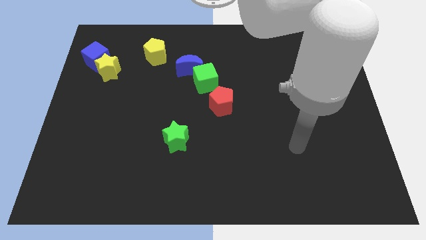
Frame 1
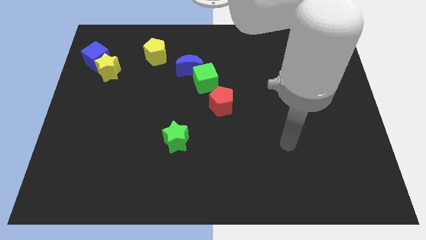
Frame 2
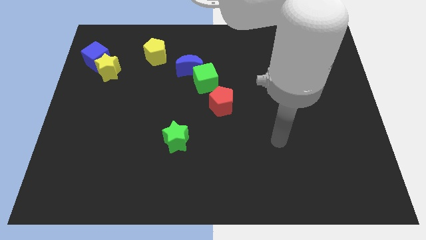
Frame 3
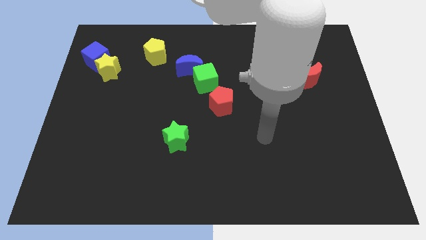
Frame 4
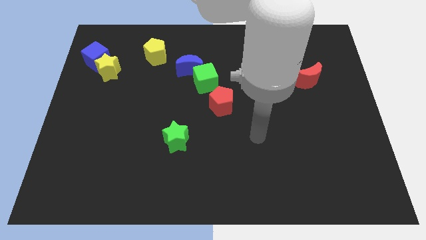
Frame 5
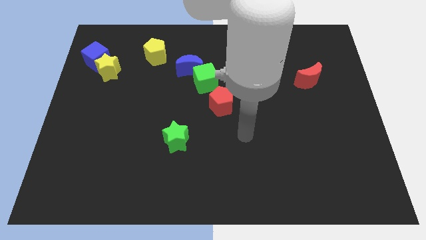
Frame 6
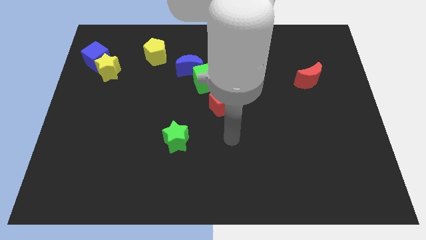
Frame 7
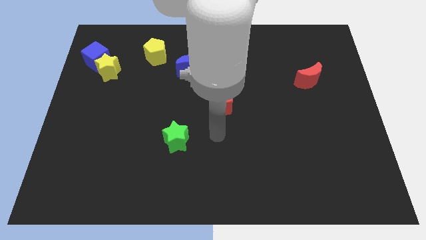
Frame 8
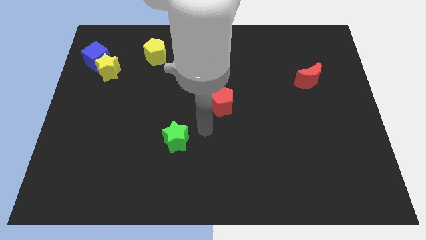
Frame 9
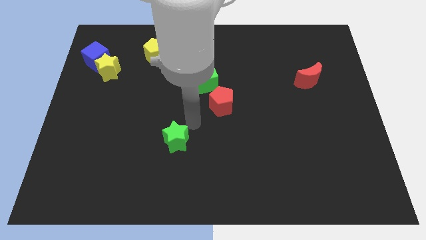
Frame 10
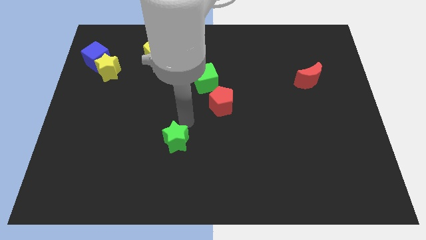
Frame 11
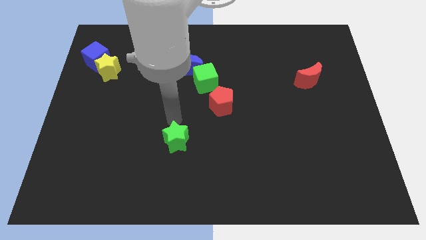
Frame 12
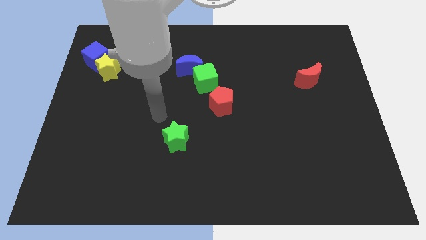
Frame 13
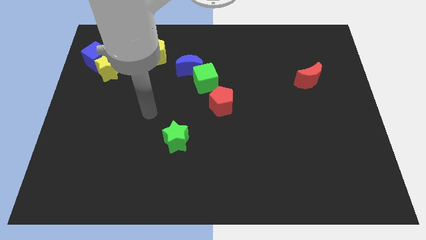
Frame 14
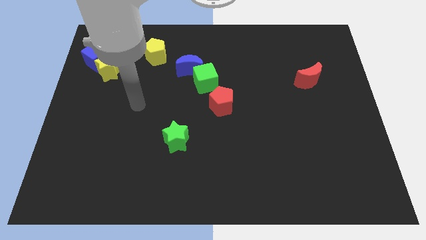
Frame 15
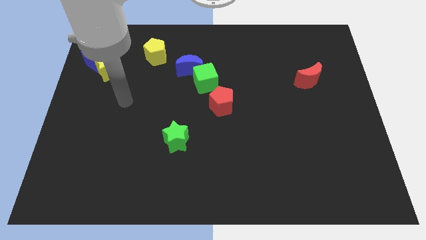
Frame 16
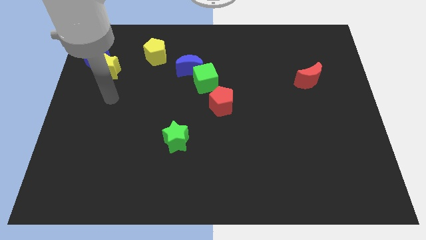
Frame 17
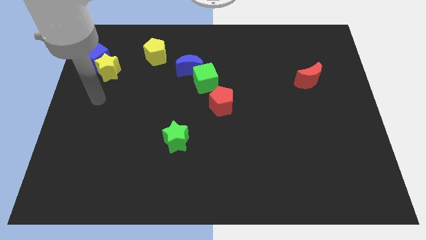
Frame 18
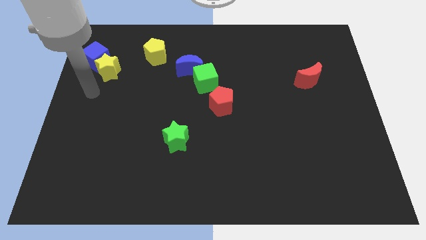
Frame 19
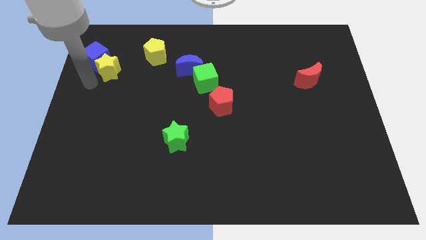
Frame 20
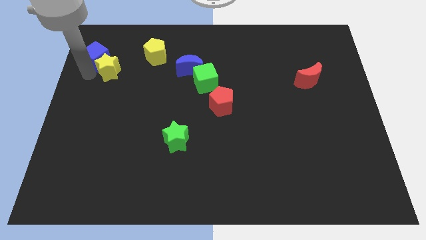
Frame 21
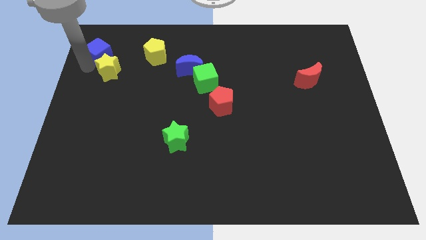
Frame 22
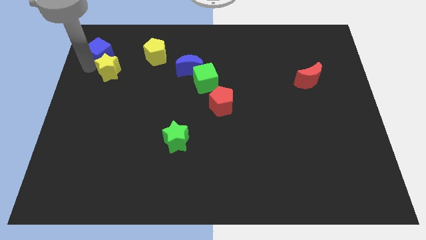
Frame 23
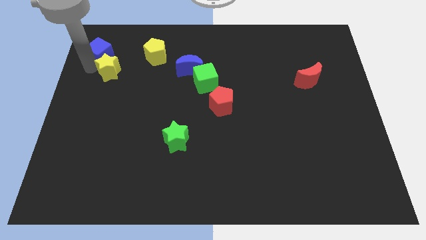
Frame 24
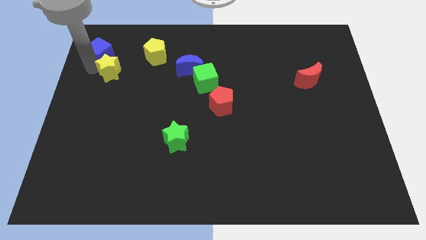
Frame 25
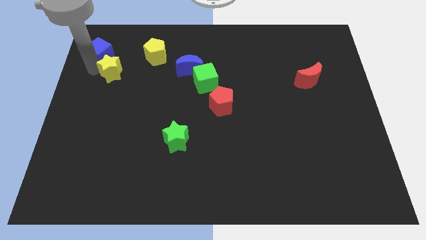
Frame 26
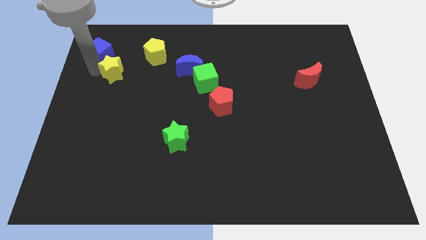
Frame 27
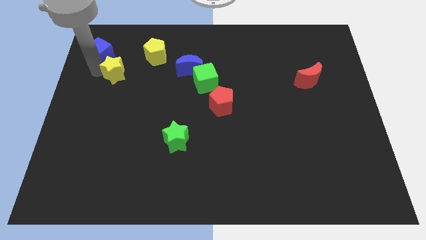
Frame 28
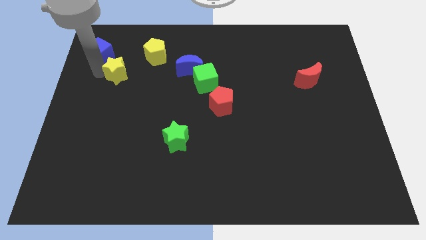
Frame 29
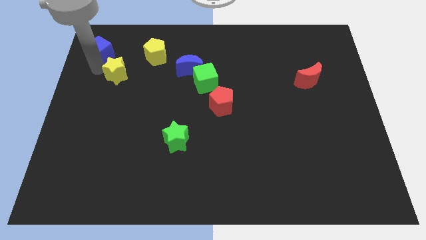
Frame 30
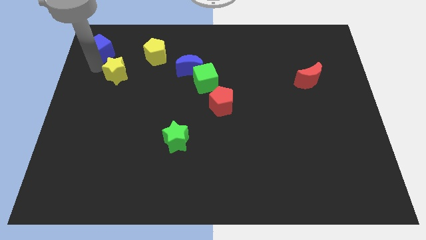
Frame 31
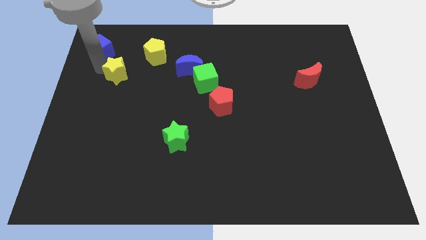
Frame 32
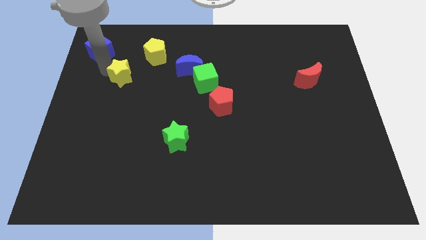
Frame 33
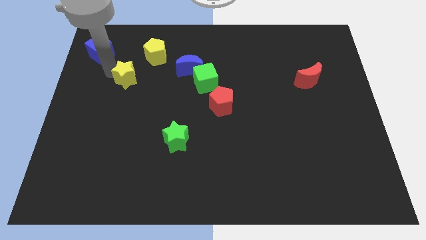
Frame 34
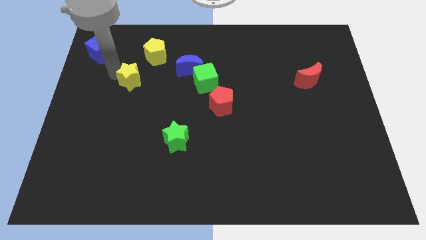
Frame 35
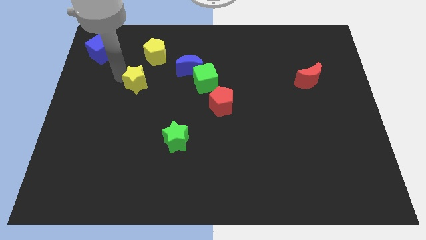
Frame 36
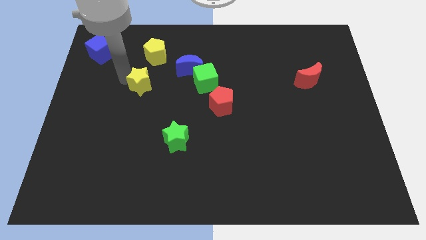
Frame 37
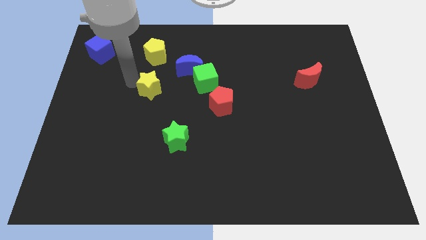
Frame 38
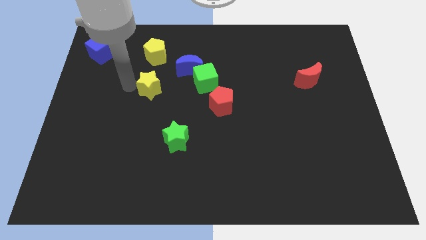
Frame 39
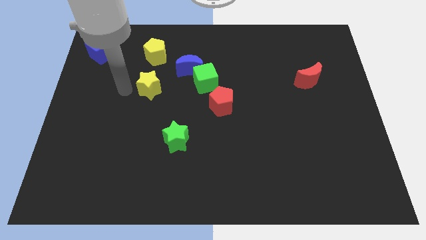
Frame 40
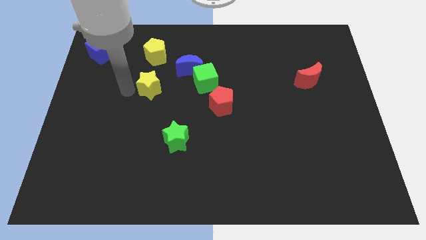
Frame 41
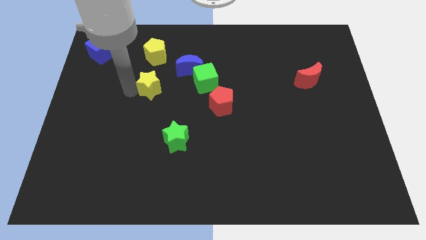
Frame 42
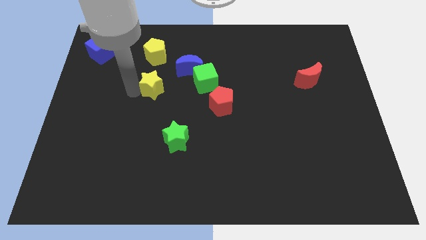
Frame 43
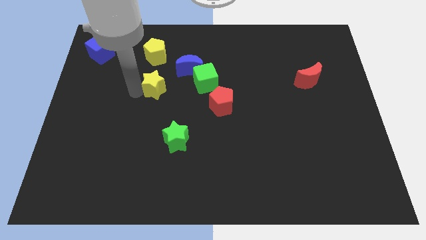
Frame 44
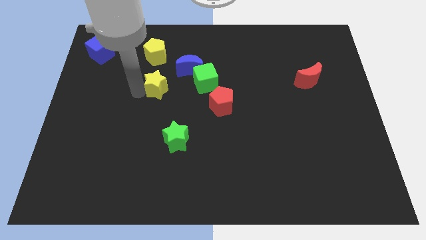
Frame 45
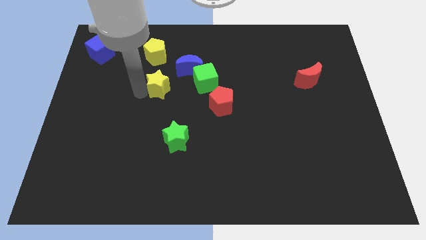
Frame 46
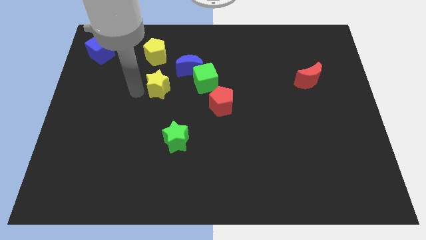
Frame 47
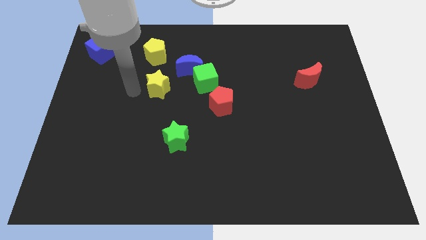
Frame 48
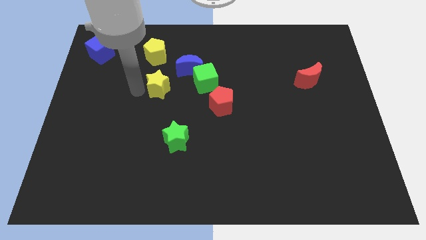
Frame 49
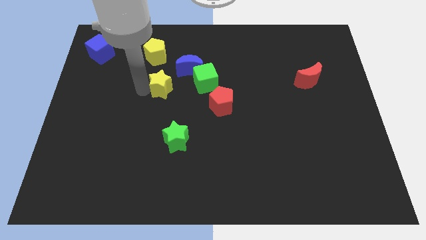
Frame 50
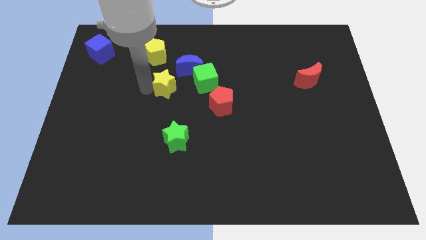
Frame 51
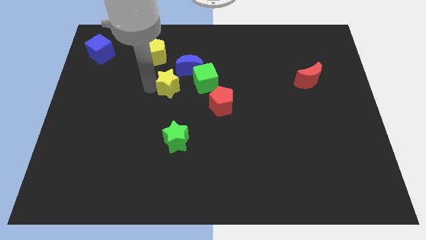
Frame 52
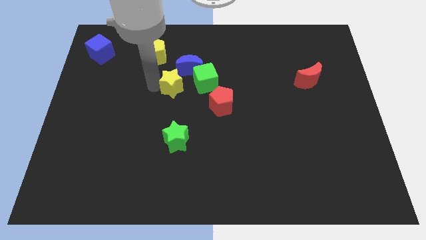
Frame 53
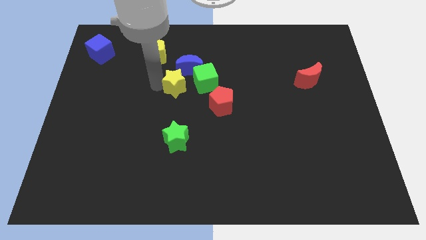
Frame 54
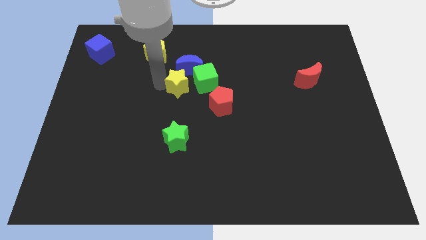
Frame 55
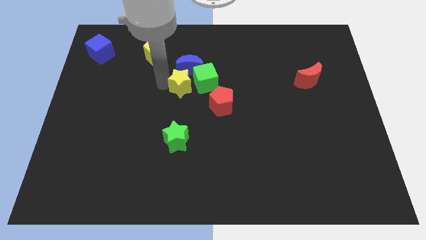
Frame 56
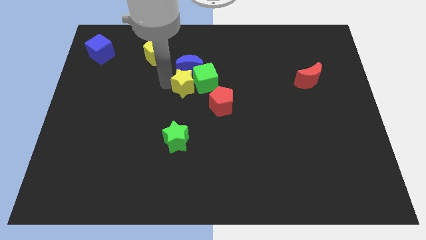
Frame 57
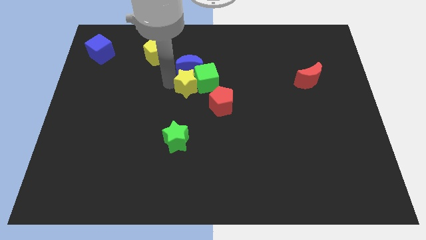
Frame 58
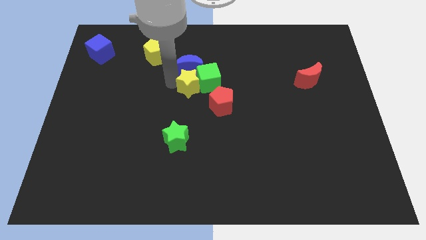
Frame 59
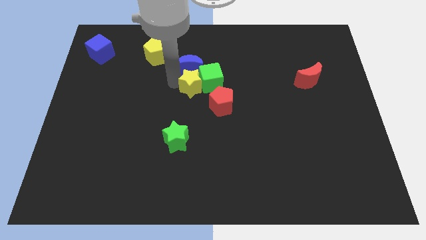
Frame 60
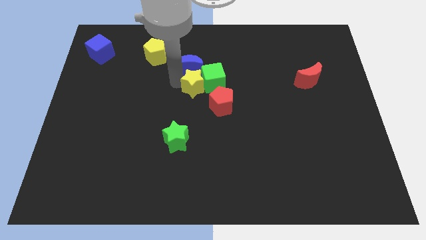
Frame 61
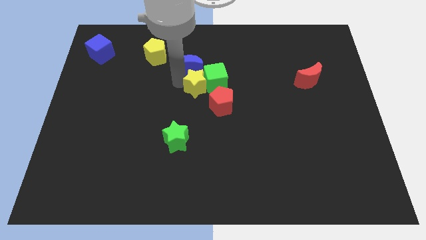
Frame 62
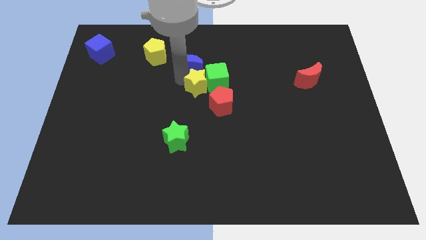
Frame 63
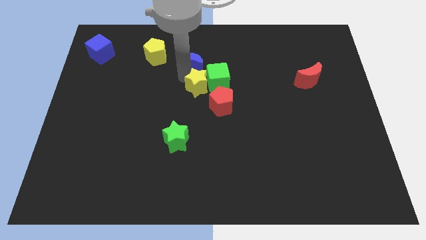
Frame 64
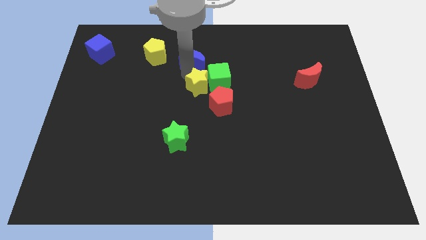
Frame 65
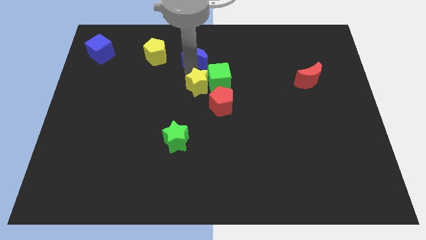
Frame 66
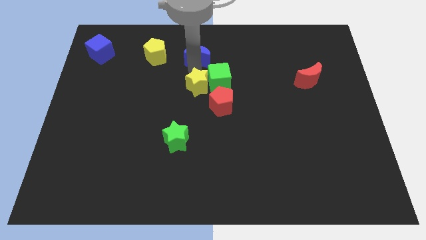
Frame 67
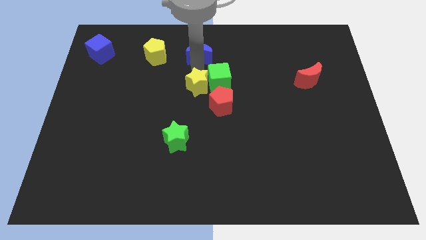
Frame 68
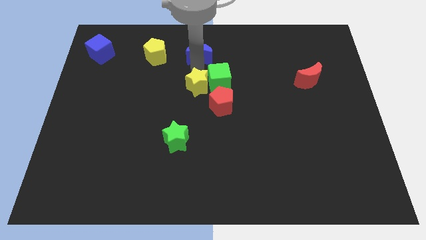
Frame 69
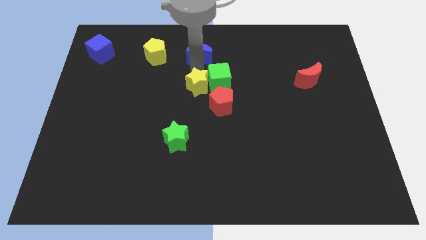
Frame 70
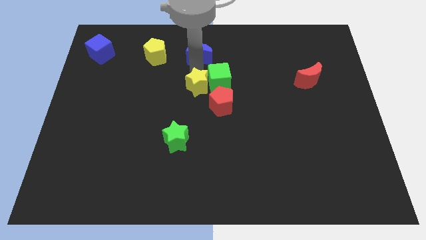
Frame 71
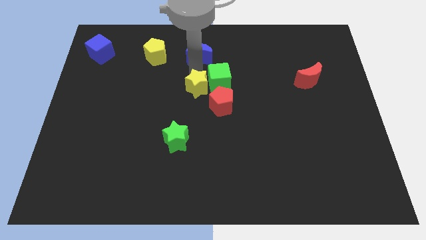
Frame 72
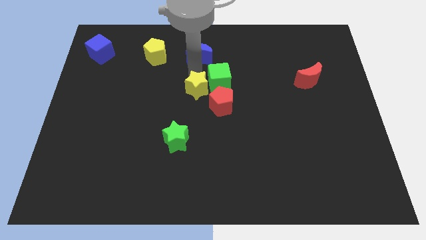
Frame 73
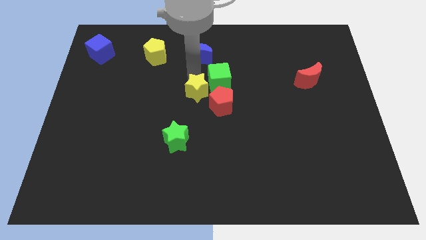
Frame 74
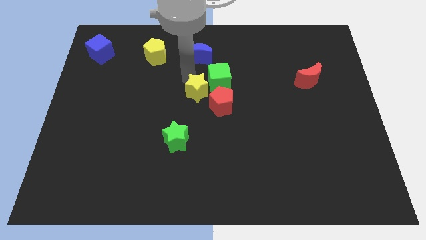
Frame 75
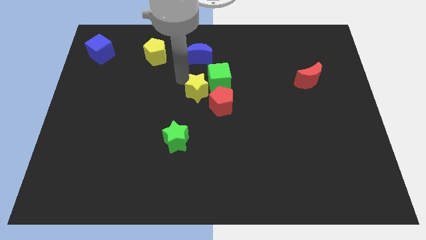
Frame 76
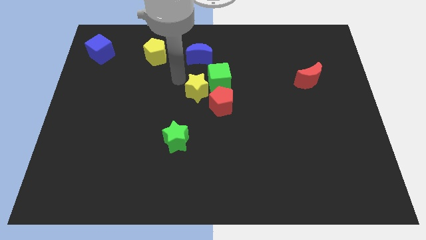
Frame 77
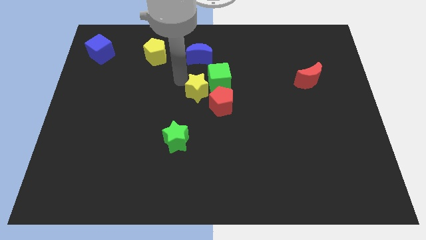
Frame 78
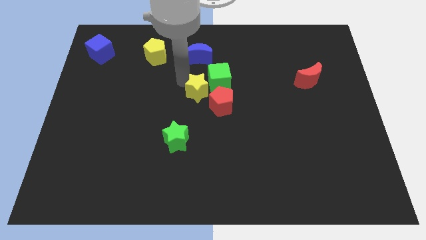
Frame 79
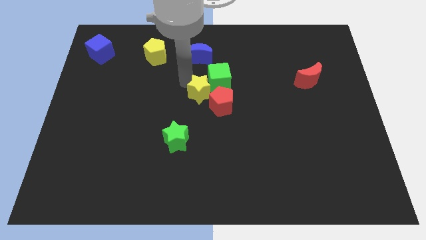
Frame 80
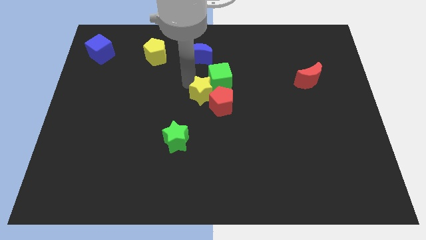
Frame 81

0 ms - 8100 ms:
slide the yellow star close to the red pentagon
